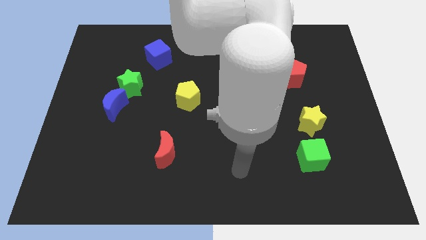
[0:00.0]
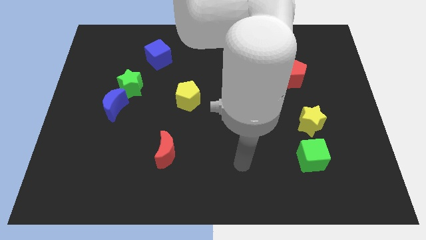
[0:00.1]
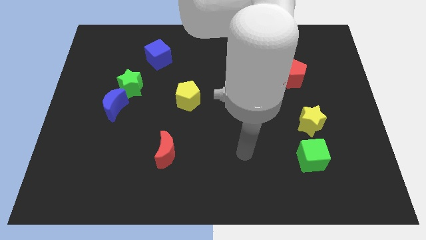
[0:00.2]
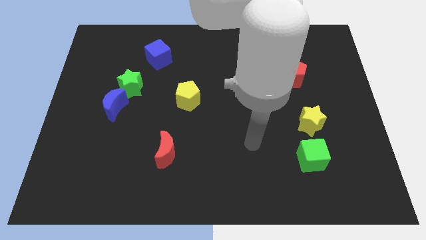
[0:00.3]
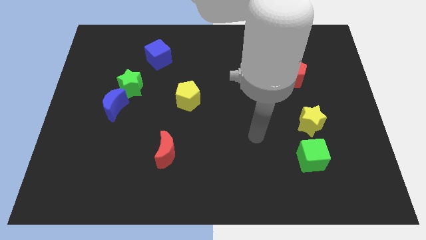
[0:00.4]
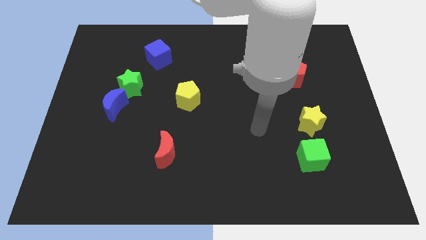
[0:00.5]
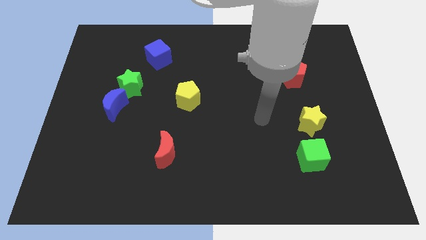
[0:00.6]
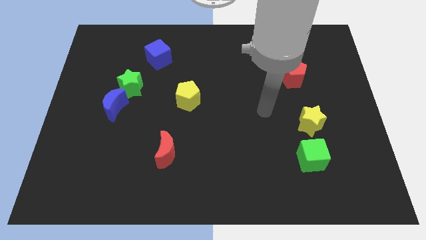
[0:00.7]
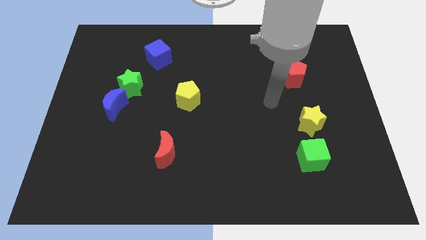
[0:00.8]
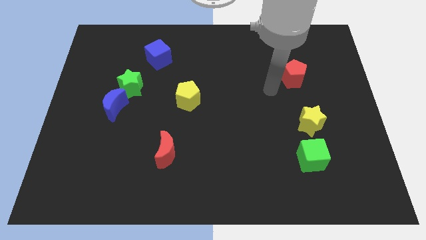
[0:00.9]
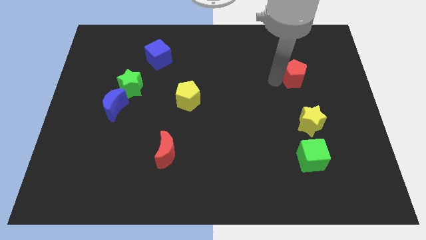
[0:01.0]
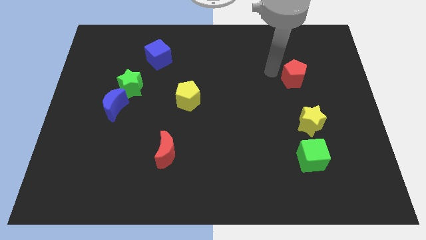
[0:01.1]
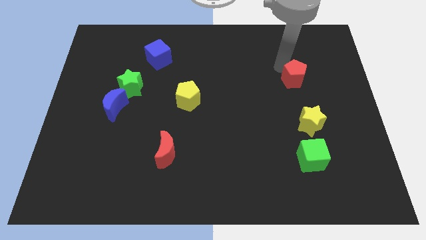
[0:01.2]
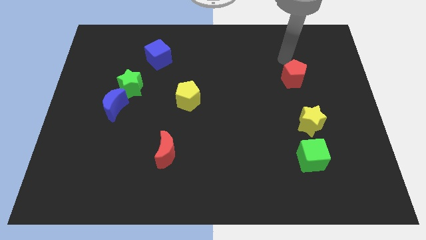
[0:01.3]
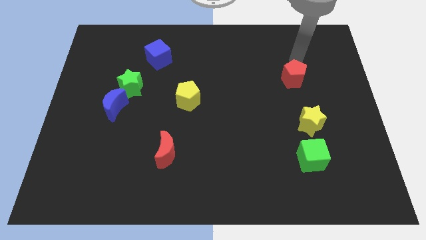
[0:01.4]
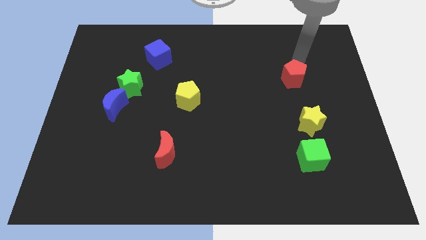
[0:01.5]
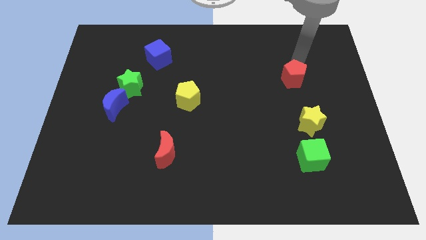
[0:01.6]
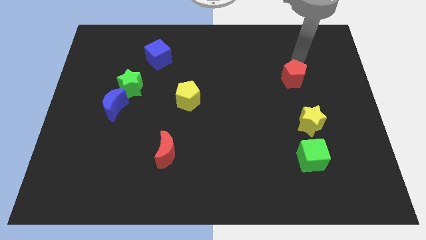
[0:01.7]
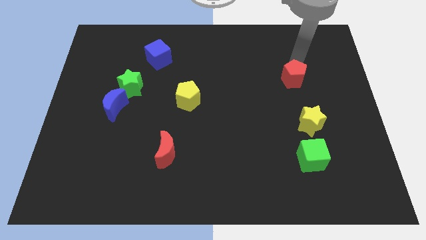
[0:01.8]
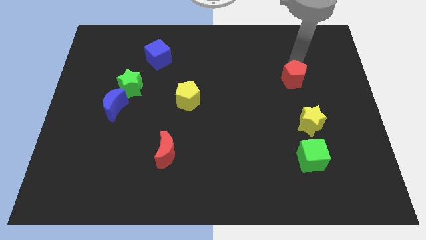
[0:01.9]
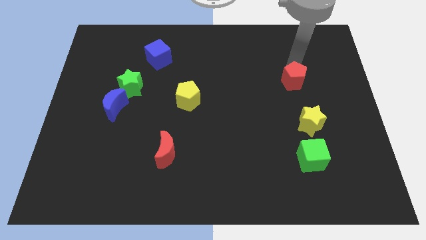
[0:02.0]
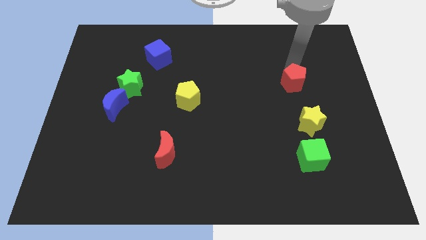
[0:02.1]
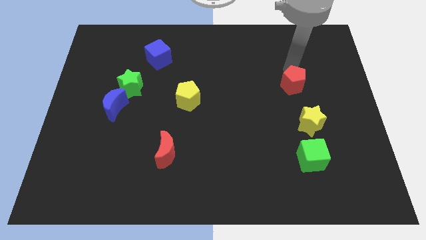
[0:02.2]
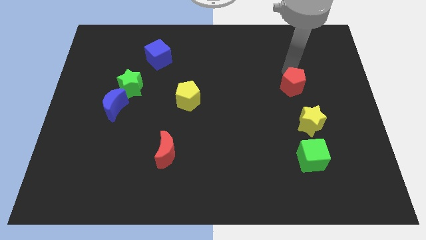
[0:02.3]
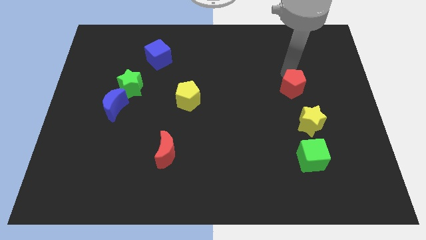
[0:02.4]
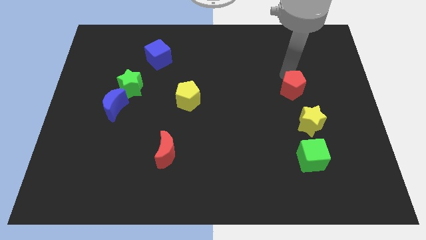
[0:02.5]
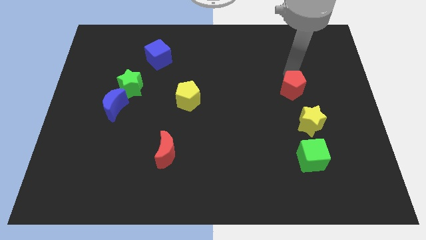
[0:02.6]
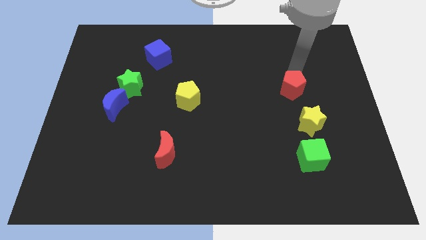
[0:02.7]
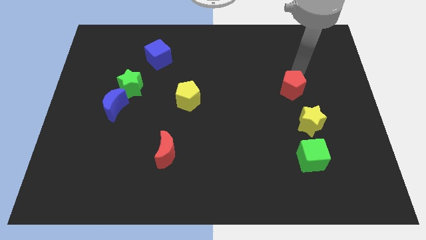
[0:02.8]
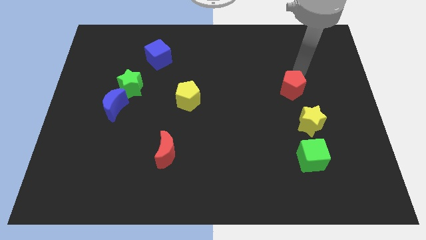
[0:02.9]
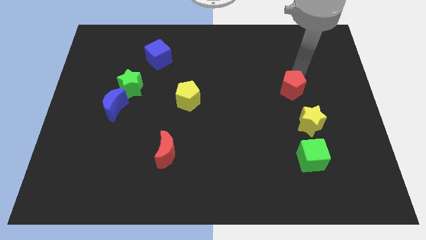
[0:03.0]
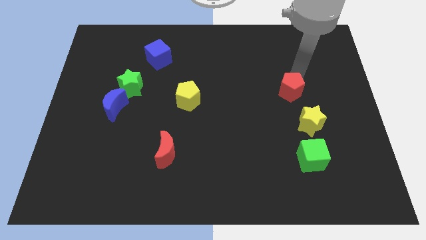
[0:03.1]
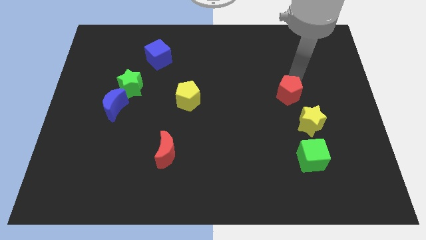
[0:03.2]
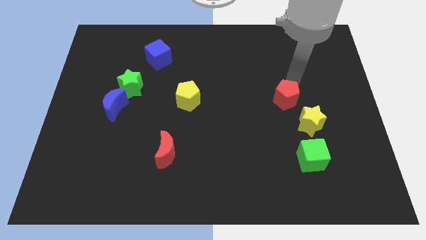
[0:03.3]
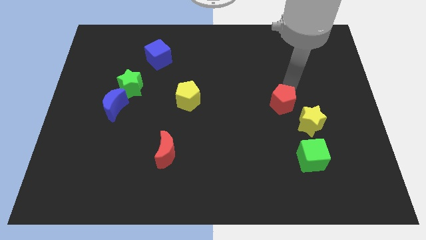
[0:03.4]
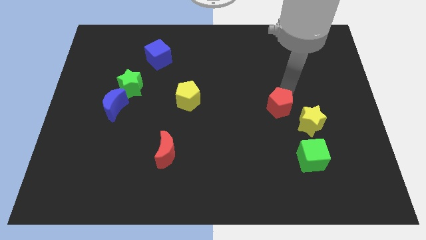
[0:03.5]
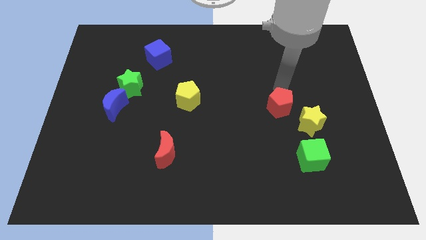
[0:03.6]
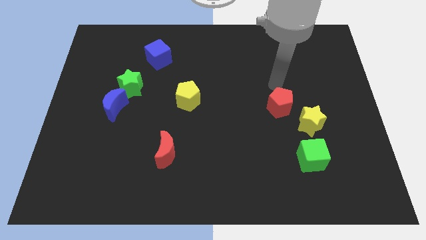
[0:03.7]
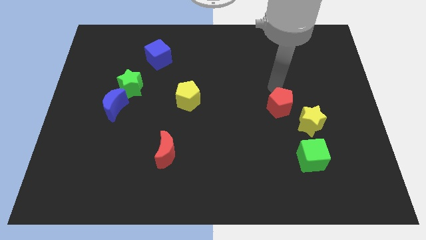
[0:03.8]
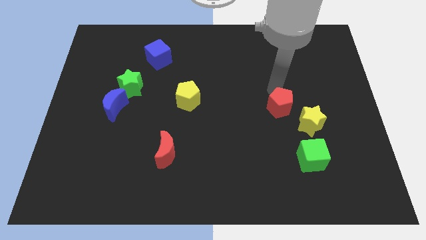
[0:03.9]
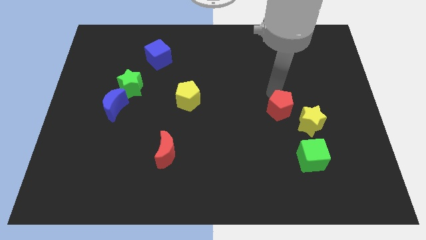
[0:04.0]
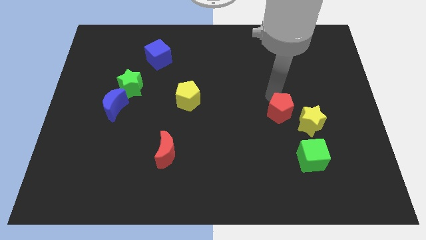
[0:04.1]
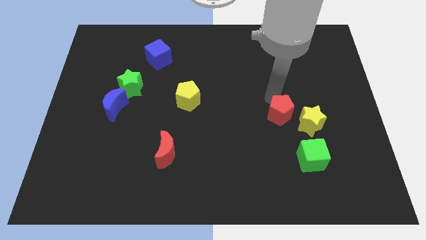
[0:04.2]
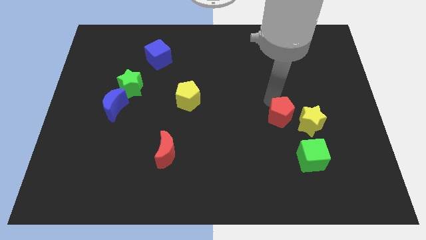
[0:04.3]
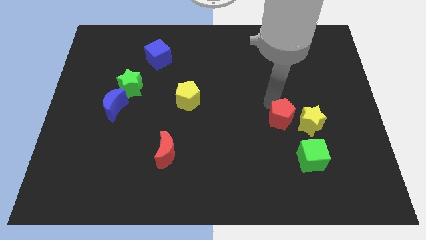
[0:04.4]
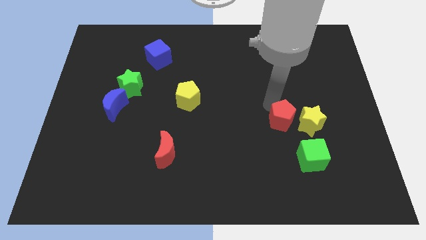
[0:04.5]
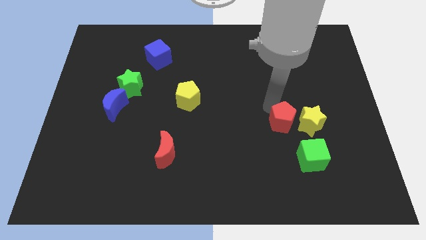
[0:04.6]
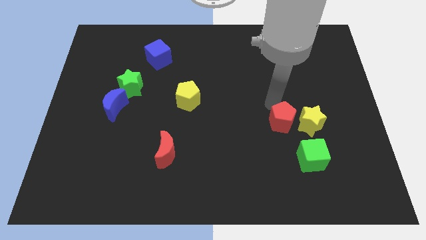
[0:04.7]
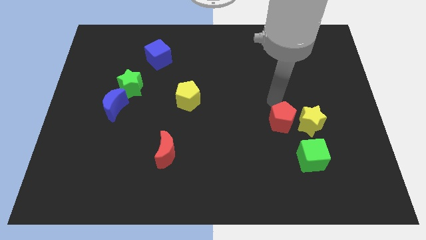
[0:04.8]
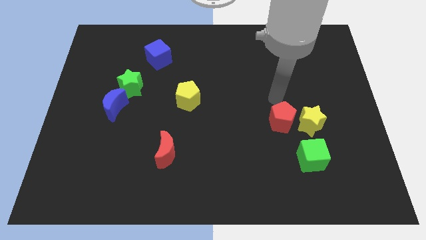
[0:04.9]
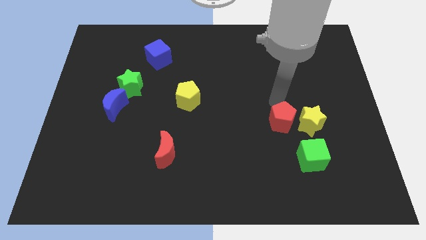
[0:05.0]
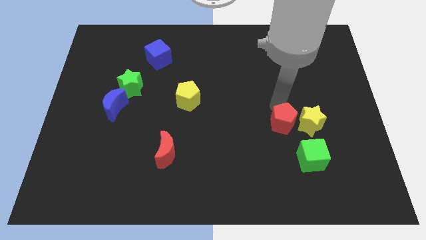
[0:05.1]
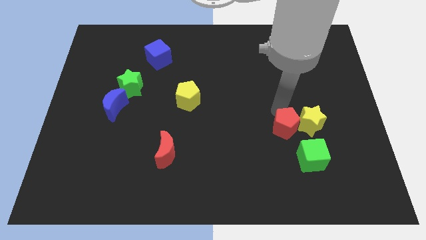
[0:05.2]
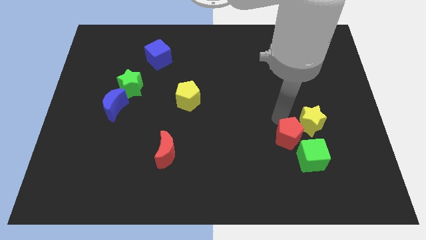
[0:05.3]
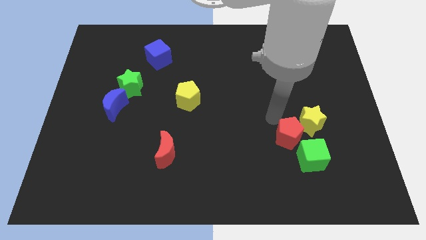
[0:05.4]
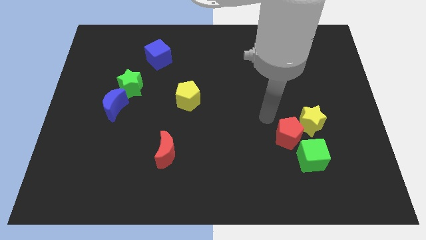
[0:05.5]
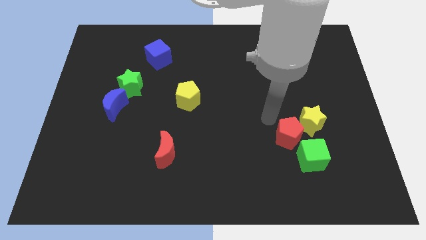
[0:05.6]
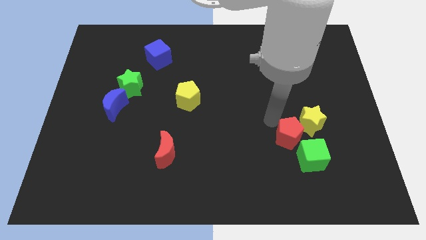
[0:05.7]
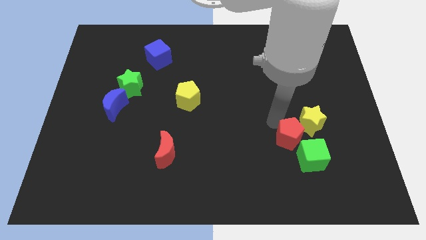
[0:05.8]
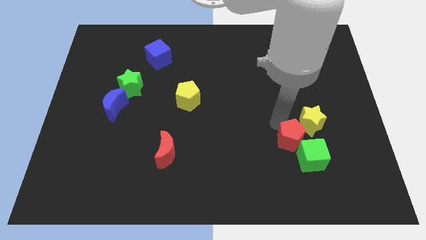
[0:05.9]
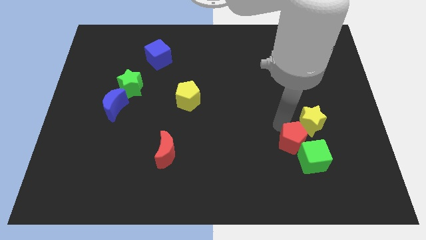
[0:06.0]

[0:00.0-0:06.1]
push the red pentagon to the green cube

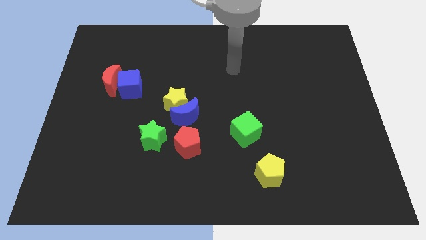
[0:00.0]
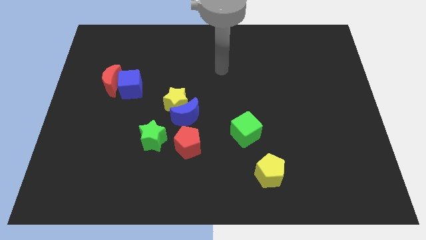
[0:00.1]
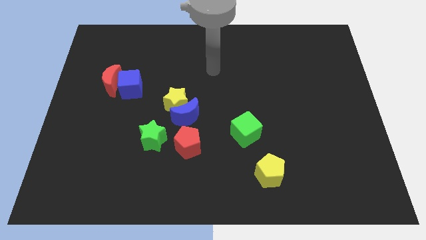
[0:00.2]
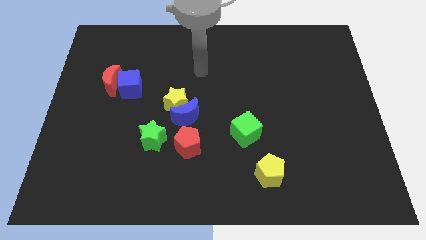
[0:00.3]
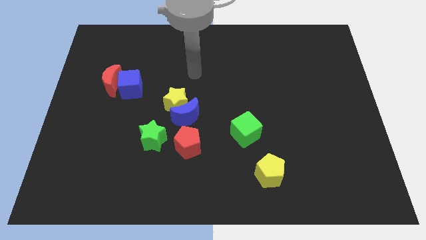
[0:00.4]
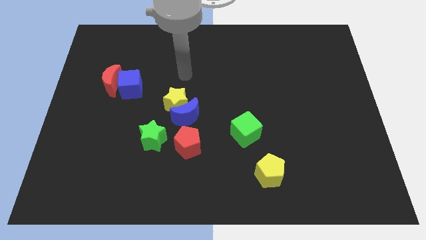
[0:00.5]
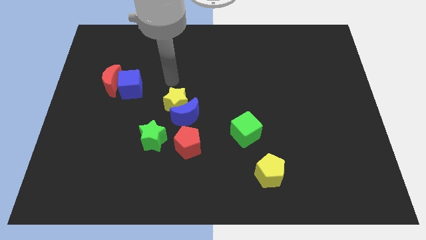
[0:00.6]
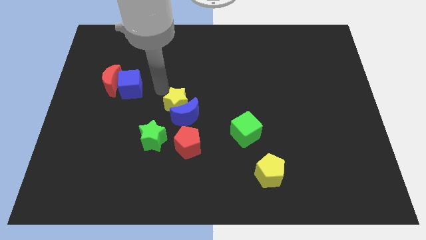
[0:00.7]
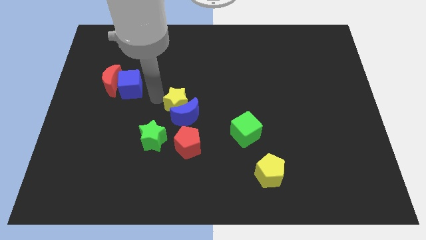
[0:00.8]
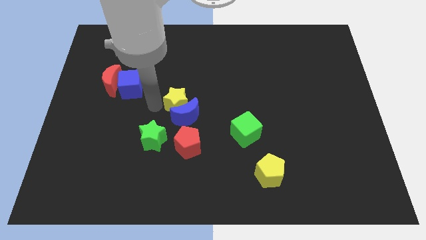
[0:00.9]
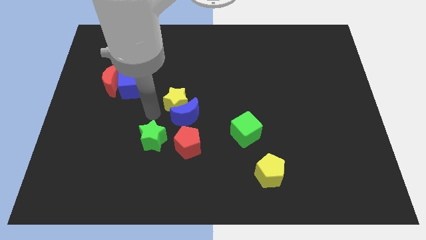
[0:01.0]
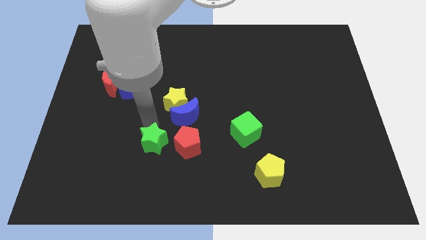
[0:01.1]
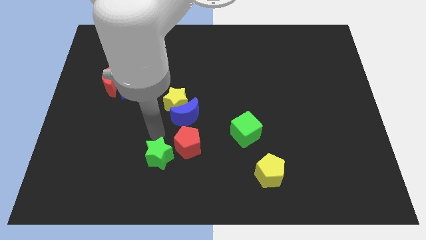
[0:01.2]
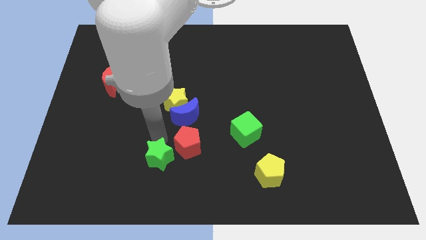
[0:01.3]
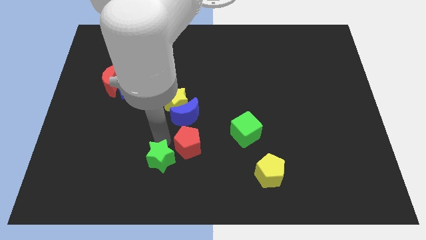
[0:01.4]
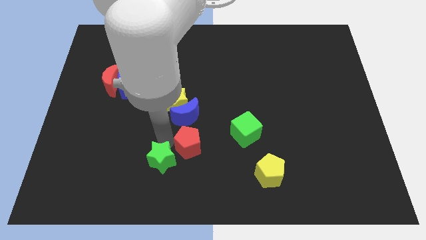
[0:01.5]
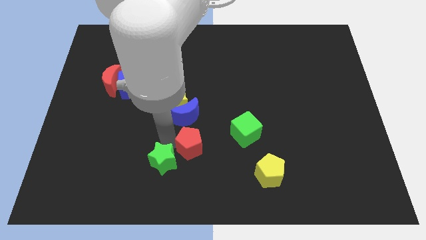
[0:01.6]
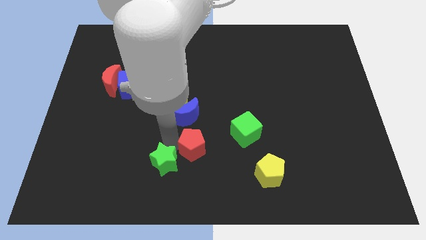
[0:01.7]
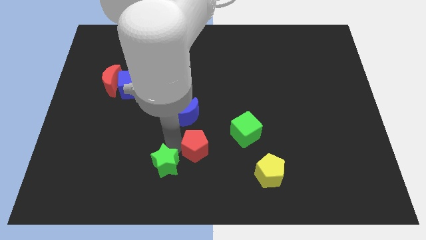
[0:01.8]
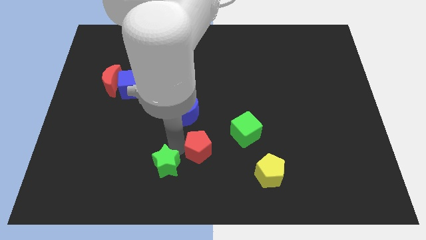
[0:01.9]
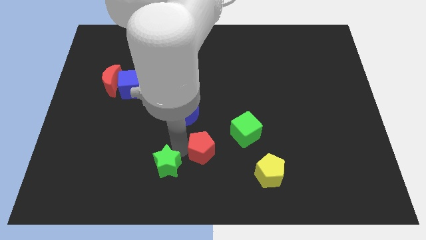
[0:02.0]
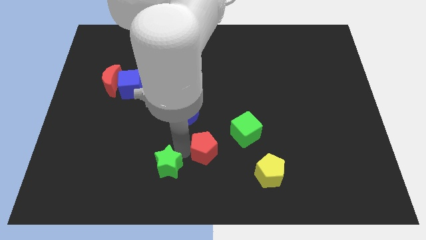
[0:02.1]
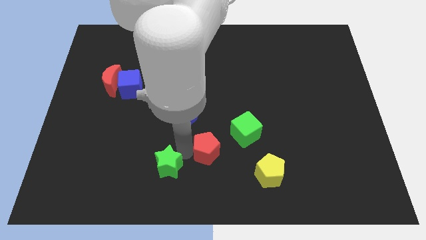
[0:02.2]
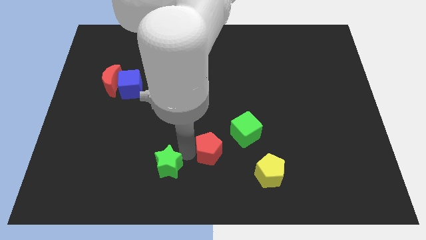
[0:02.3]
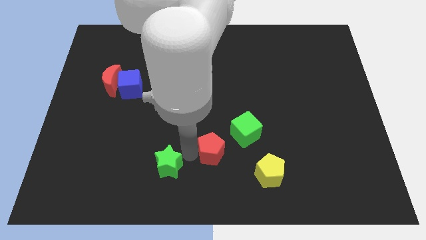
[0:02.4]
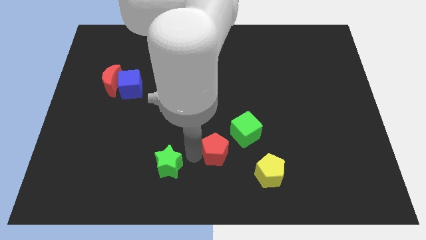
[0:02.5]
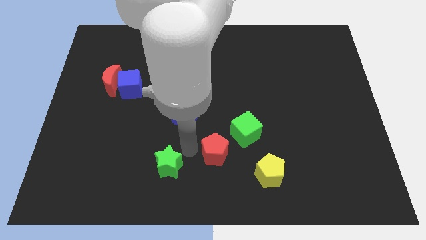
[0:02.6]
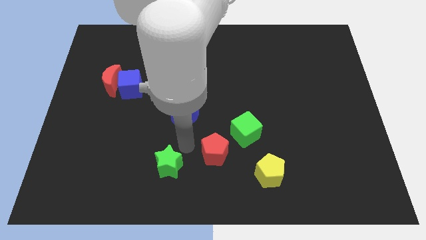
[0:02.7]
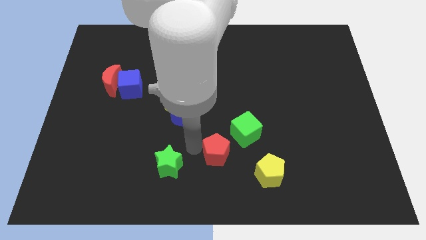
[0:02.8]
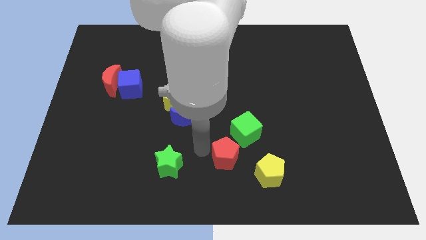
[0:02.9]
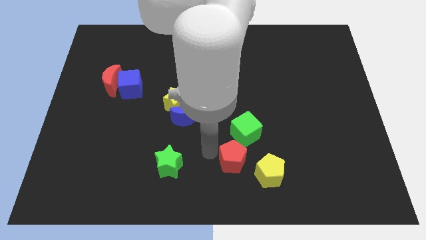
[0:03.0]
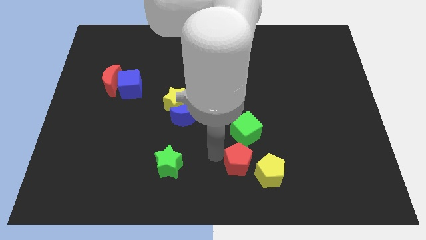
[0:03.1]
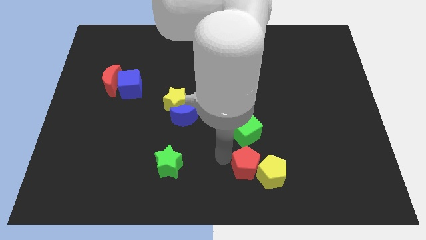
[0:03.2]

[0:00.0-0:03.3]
put the red pentagon close to the yellow pentagon
